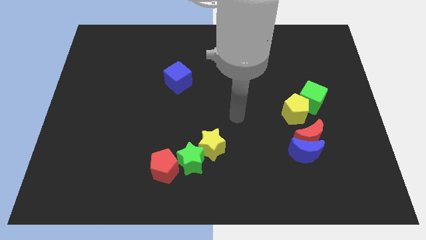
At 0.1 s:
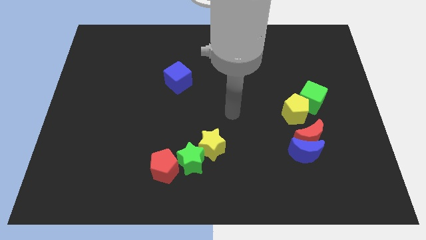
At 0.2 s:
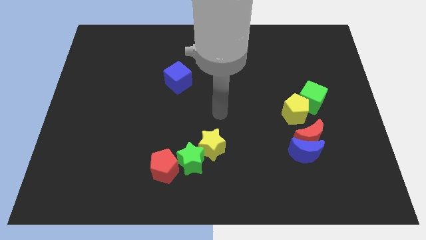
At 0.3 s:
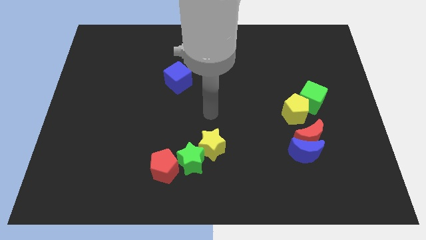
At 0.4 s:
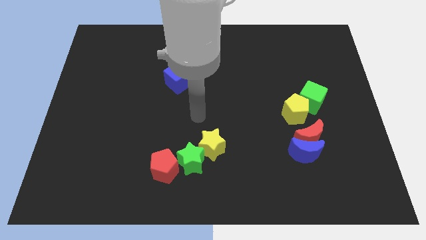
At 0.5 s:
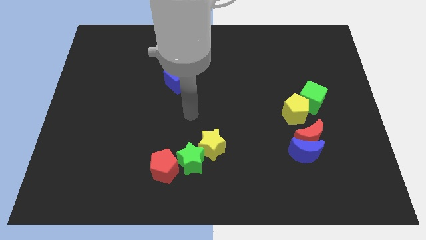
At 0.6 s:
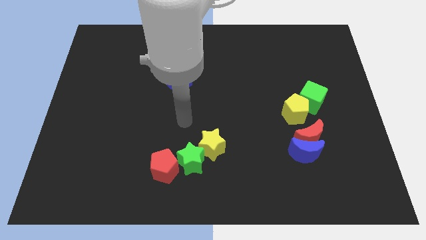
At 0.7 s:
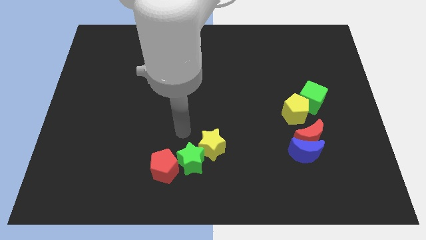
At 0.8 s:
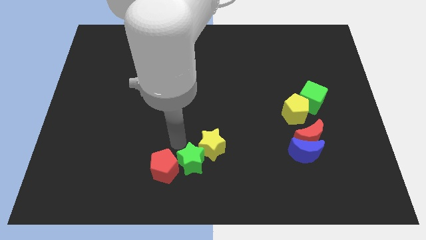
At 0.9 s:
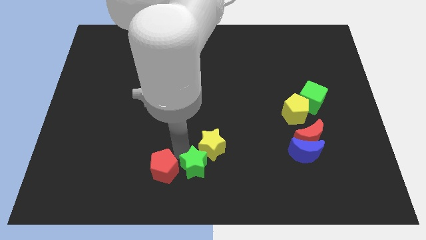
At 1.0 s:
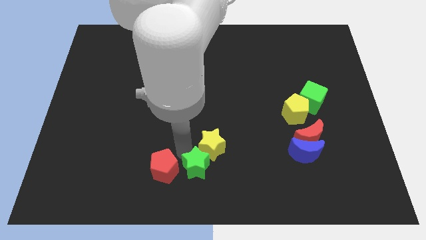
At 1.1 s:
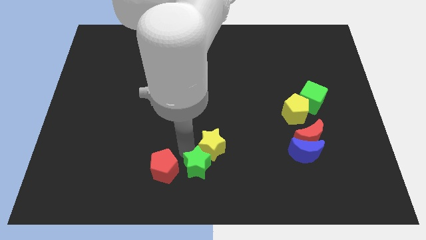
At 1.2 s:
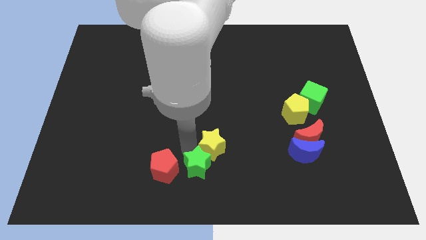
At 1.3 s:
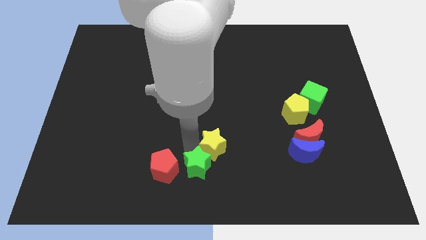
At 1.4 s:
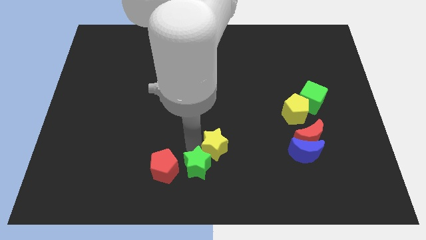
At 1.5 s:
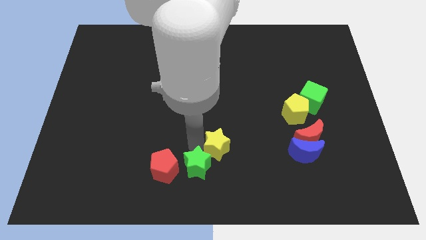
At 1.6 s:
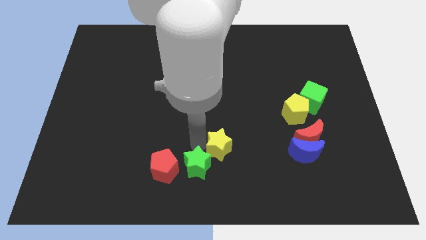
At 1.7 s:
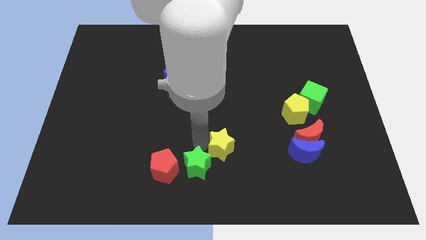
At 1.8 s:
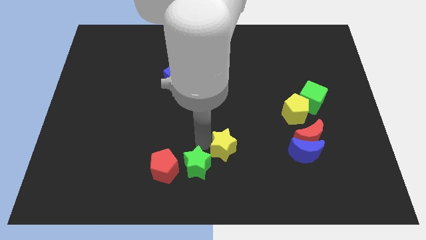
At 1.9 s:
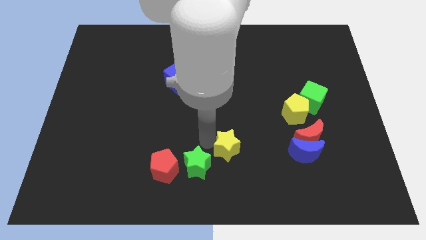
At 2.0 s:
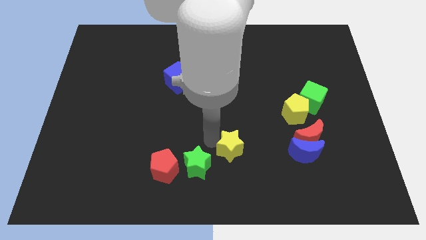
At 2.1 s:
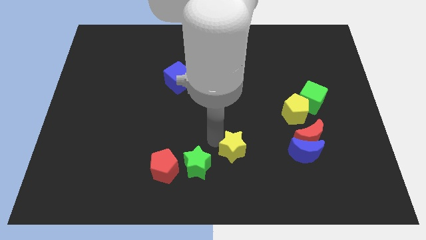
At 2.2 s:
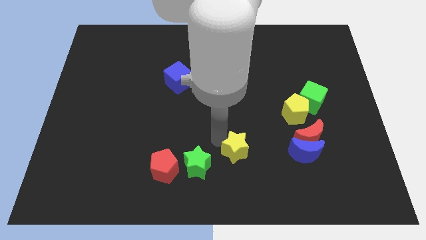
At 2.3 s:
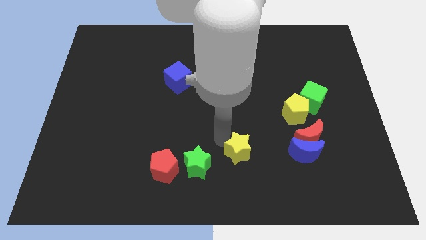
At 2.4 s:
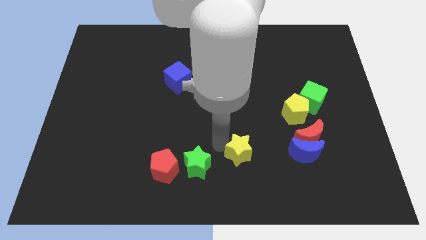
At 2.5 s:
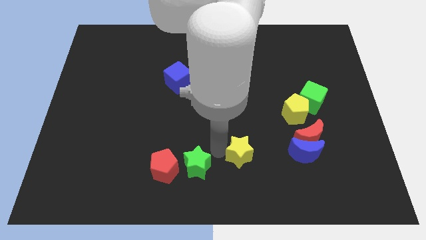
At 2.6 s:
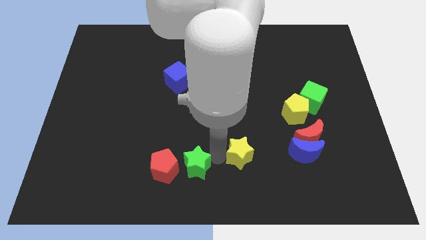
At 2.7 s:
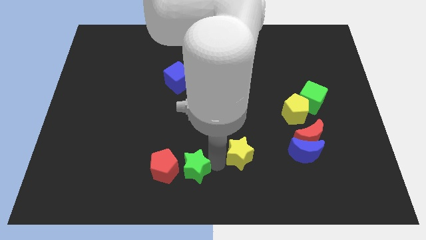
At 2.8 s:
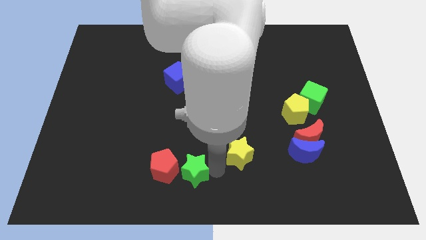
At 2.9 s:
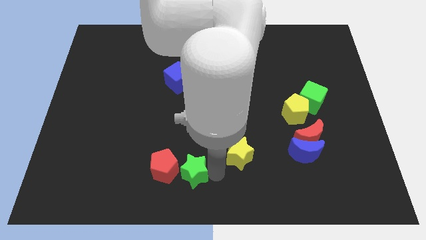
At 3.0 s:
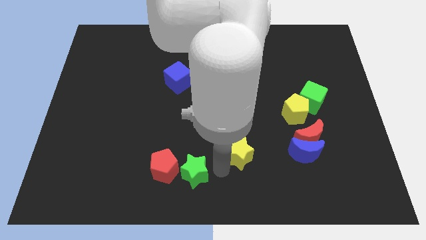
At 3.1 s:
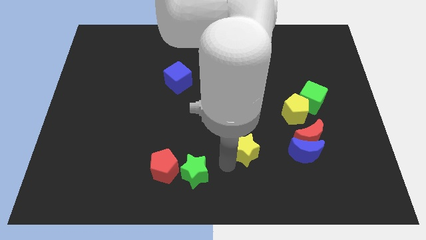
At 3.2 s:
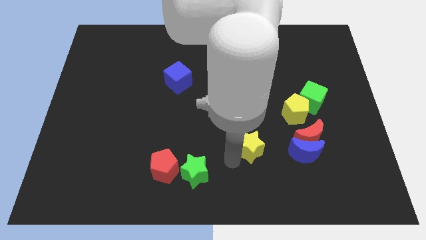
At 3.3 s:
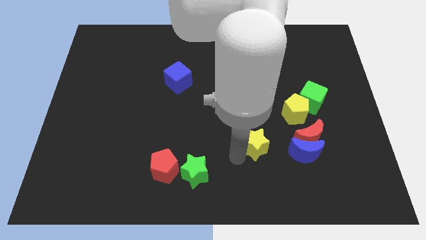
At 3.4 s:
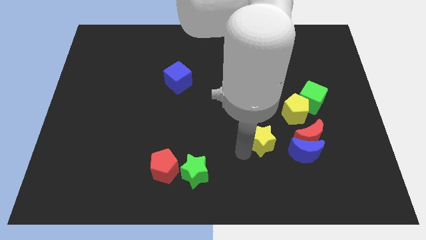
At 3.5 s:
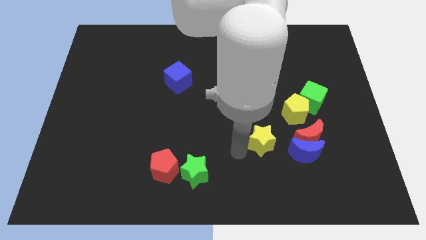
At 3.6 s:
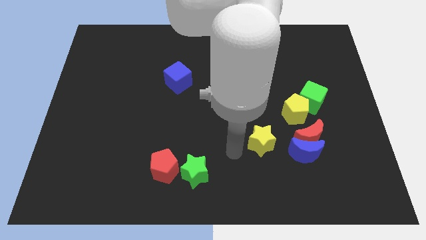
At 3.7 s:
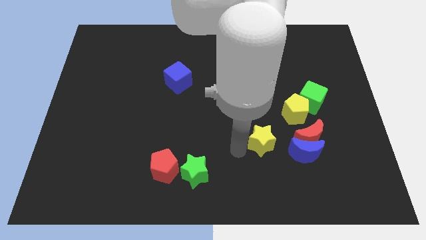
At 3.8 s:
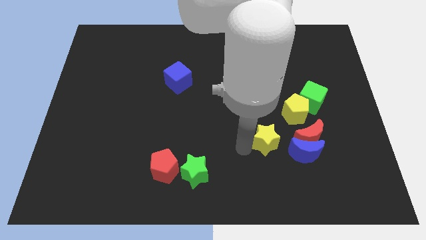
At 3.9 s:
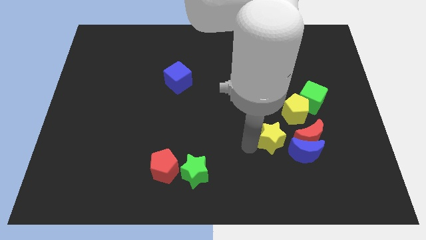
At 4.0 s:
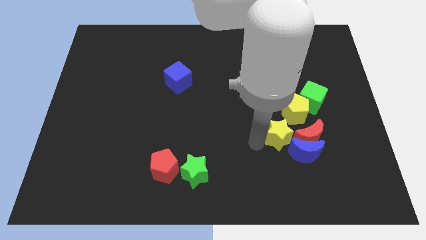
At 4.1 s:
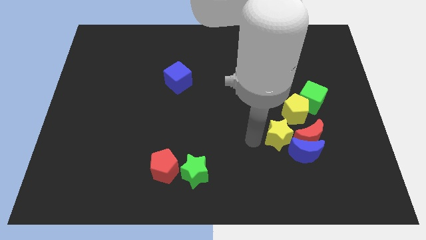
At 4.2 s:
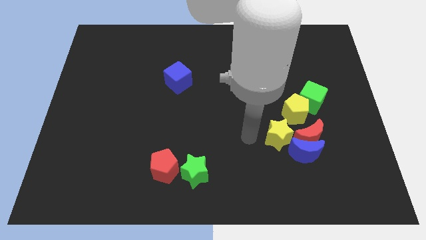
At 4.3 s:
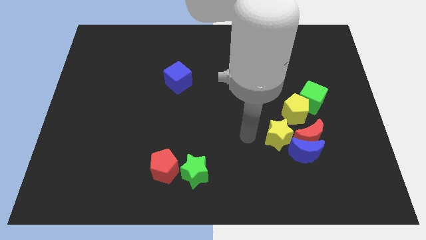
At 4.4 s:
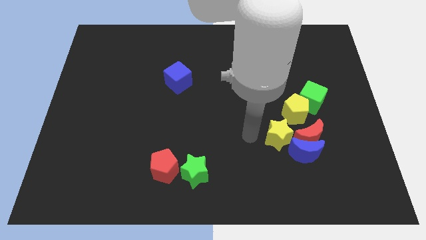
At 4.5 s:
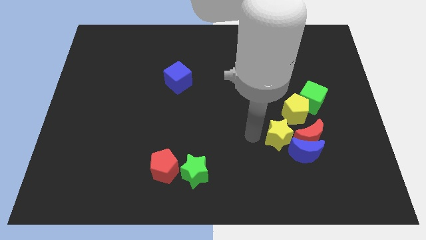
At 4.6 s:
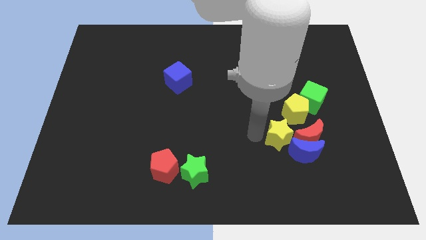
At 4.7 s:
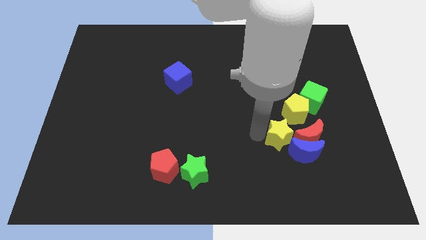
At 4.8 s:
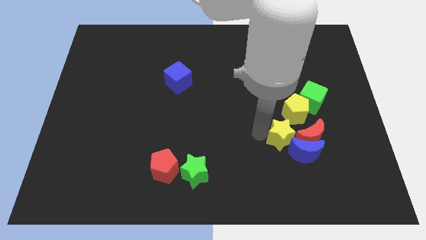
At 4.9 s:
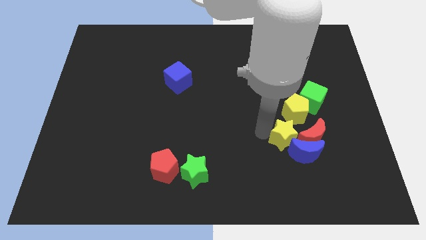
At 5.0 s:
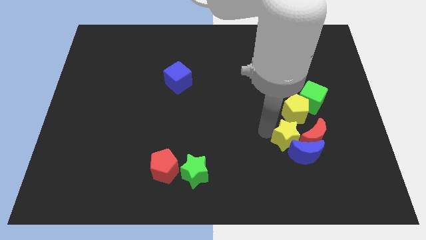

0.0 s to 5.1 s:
put the yellow star towards the red moon

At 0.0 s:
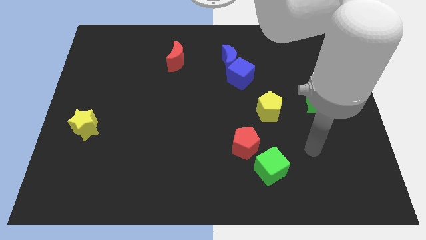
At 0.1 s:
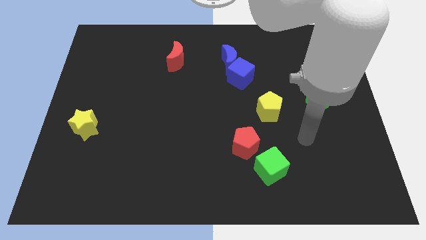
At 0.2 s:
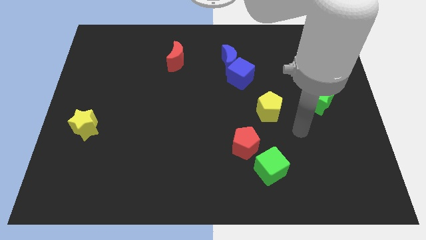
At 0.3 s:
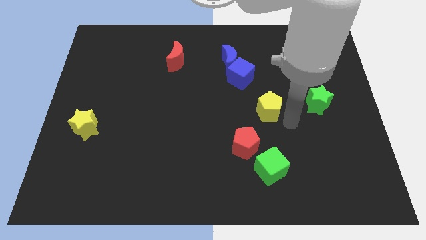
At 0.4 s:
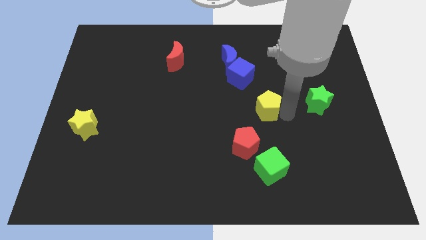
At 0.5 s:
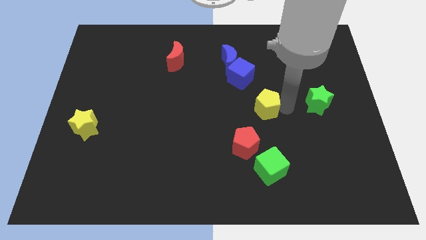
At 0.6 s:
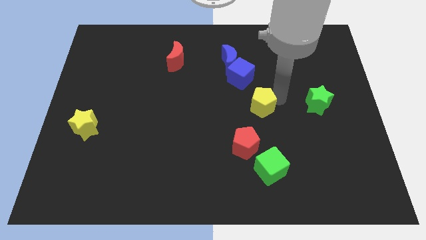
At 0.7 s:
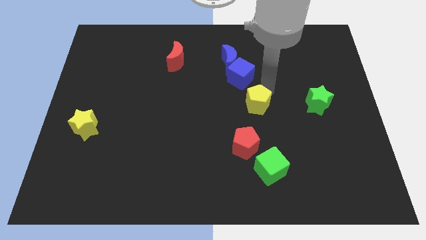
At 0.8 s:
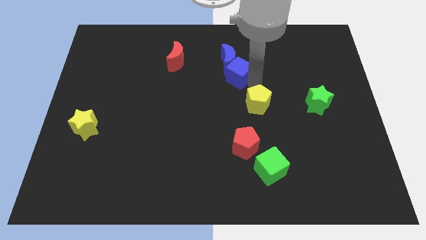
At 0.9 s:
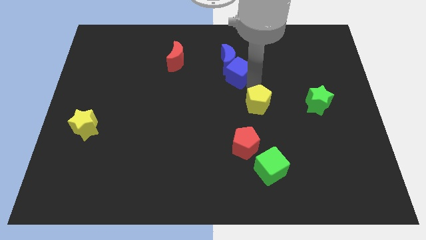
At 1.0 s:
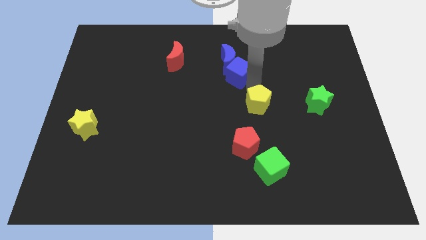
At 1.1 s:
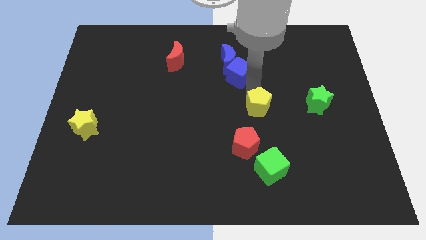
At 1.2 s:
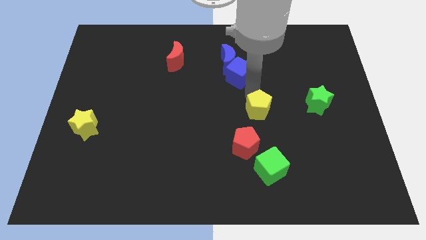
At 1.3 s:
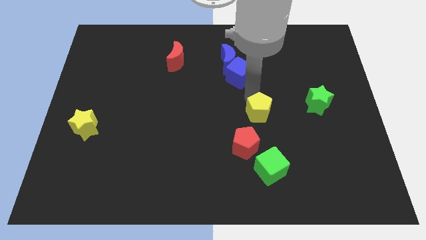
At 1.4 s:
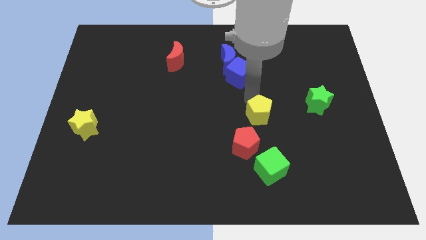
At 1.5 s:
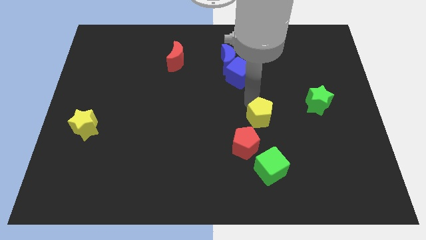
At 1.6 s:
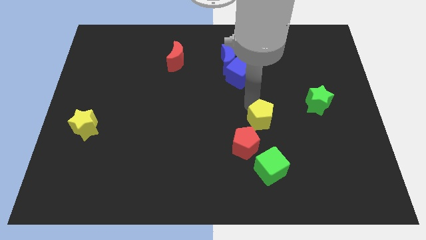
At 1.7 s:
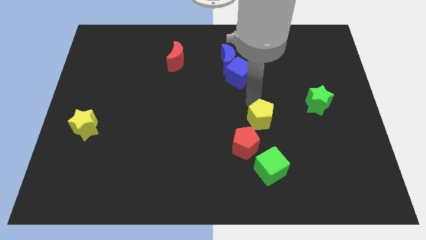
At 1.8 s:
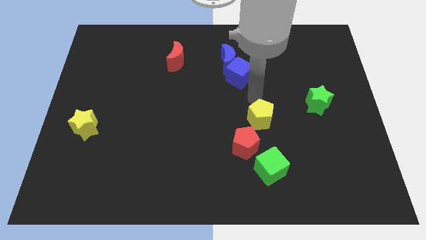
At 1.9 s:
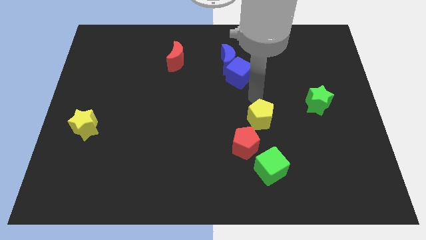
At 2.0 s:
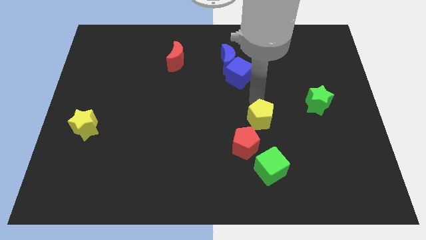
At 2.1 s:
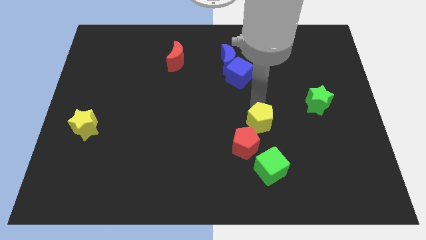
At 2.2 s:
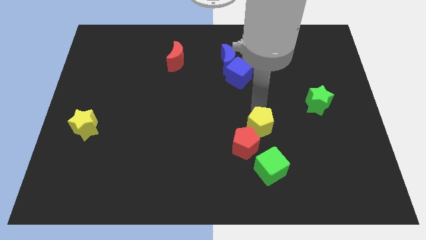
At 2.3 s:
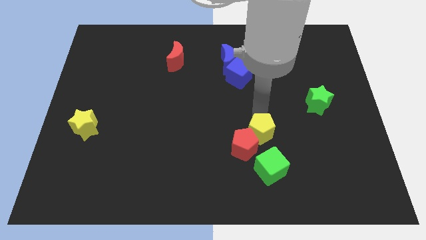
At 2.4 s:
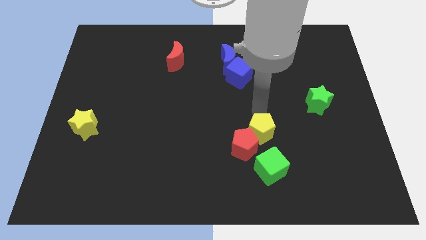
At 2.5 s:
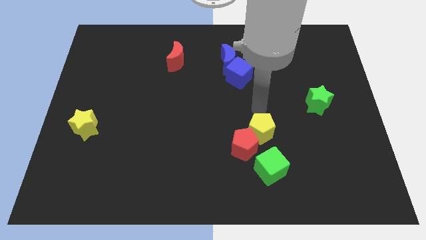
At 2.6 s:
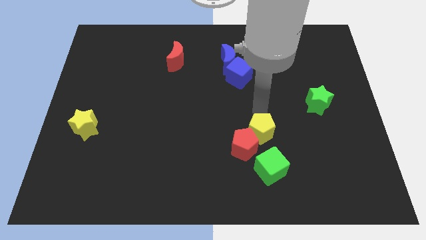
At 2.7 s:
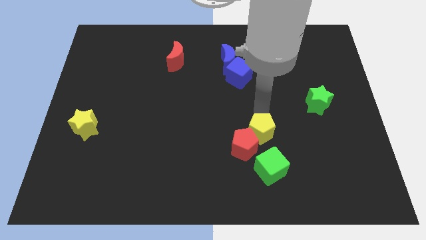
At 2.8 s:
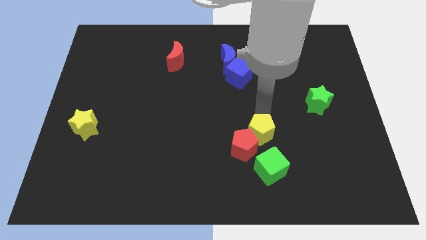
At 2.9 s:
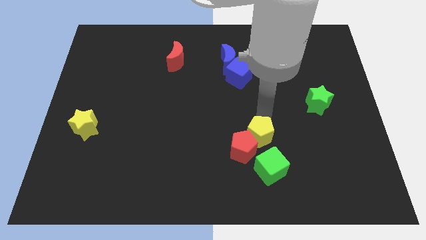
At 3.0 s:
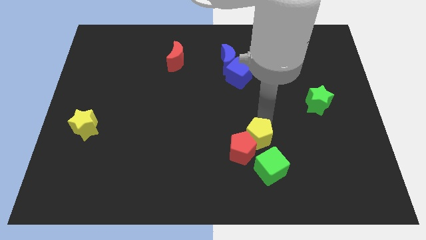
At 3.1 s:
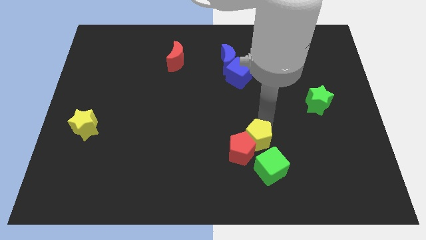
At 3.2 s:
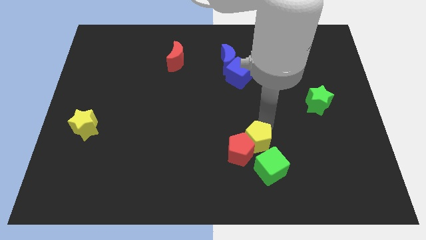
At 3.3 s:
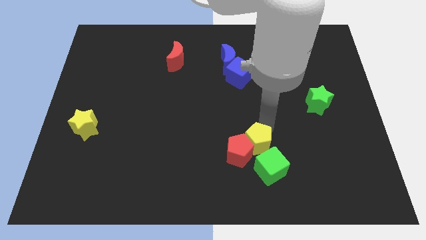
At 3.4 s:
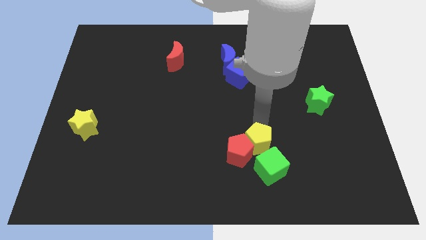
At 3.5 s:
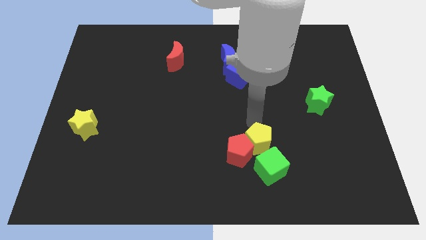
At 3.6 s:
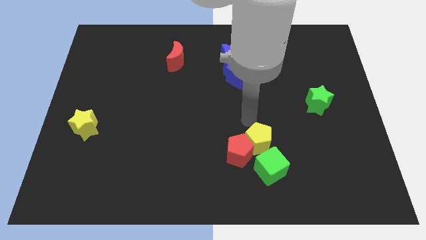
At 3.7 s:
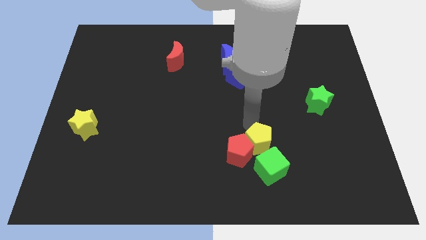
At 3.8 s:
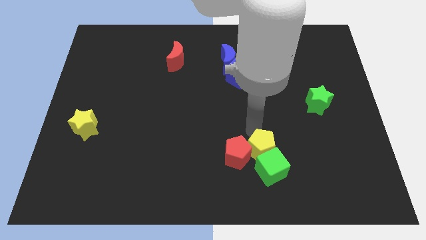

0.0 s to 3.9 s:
put the yellow pentagon to the green cube
